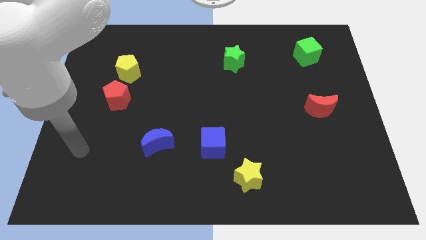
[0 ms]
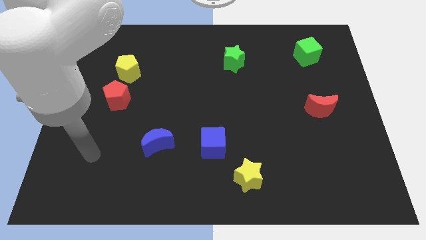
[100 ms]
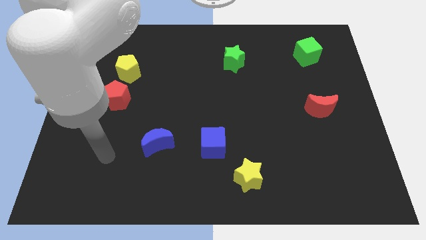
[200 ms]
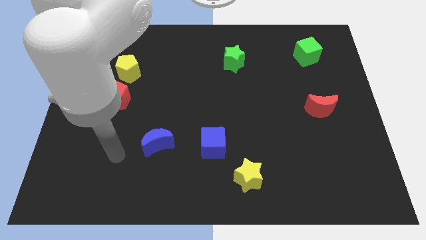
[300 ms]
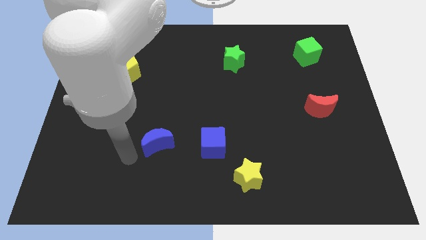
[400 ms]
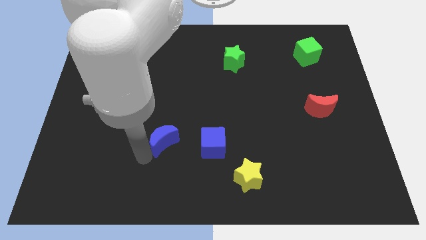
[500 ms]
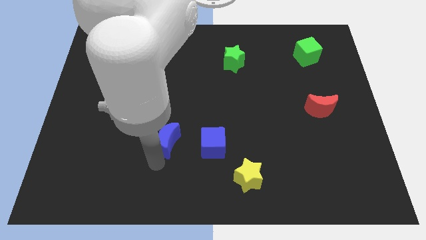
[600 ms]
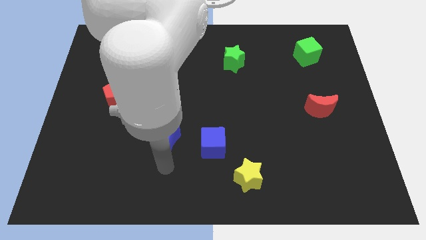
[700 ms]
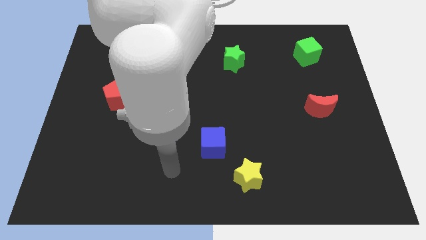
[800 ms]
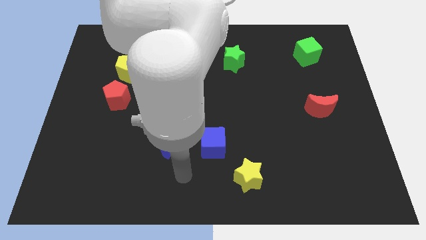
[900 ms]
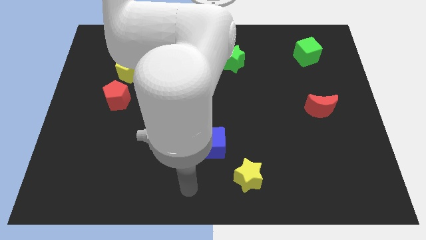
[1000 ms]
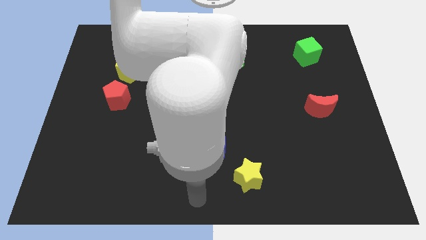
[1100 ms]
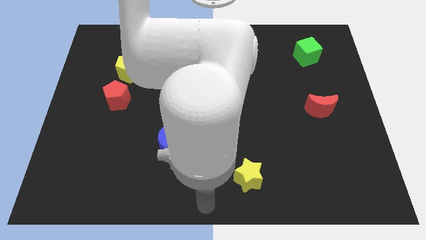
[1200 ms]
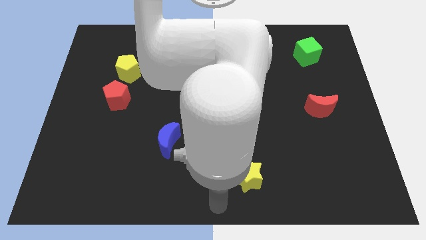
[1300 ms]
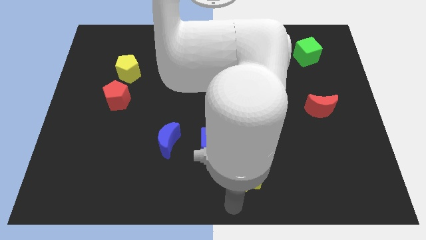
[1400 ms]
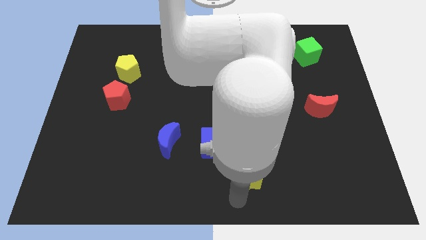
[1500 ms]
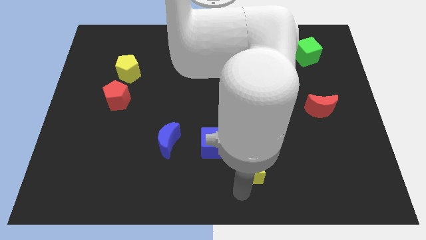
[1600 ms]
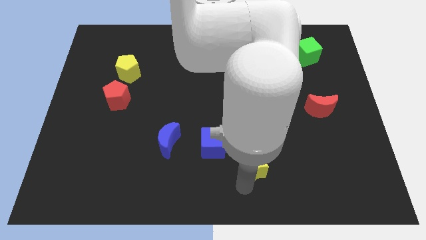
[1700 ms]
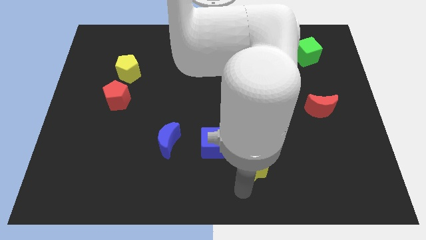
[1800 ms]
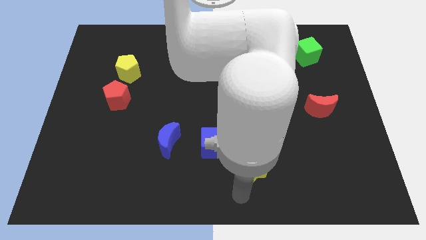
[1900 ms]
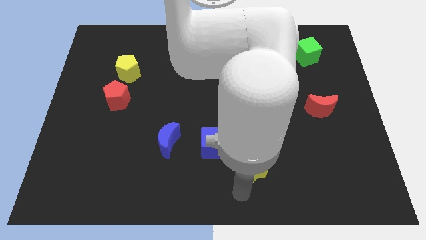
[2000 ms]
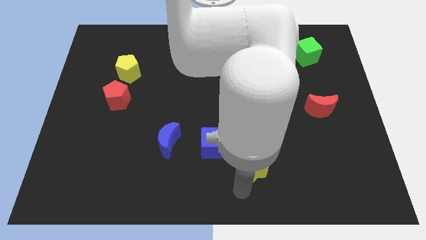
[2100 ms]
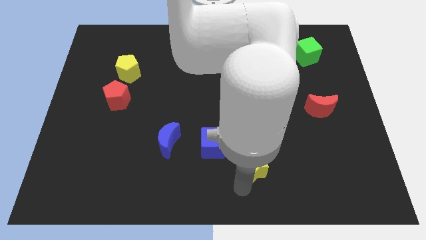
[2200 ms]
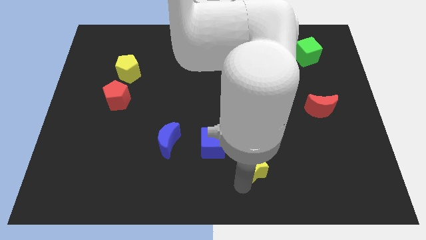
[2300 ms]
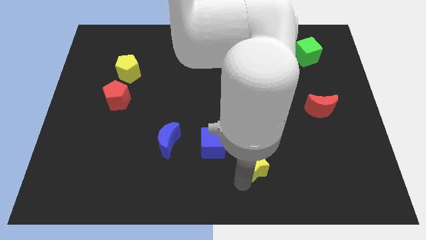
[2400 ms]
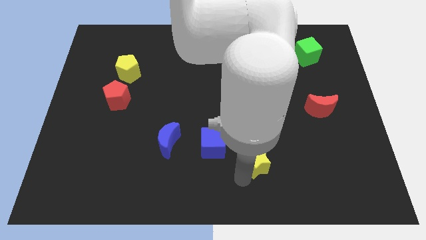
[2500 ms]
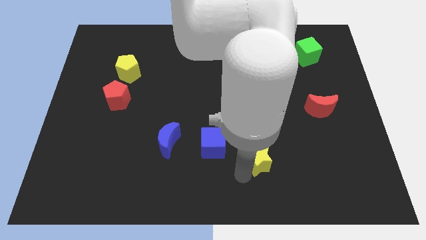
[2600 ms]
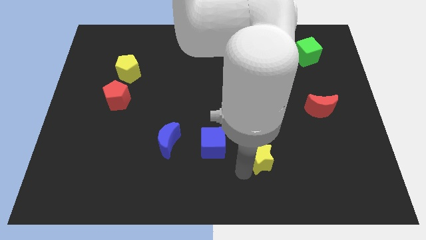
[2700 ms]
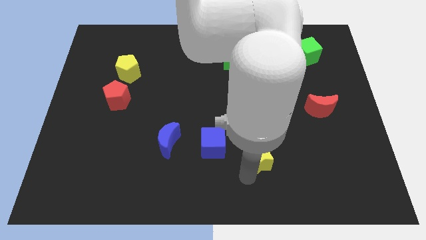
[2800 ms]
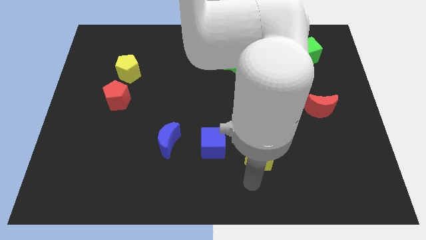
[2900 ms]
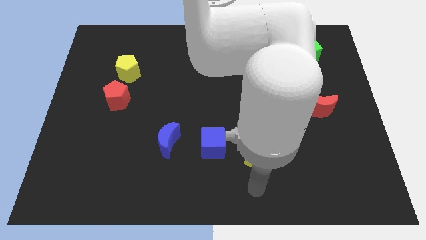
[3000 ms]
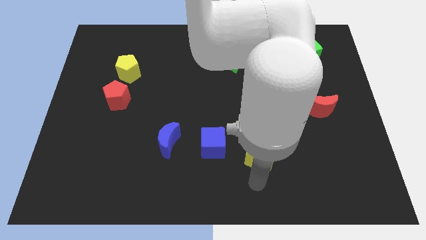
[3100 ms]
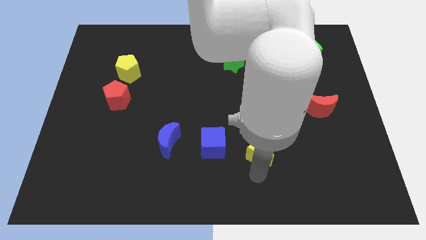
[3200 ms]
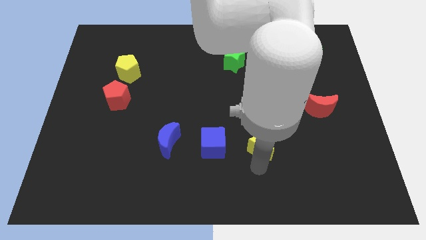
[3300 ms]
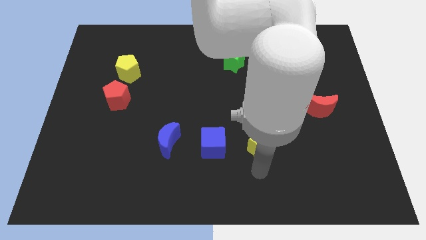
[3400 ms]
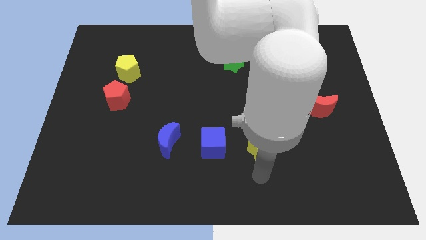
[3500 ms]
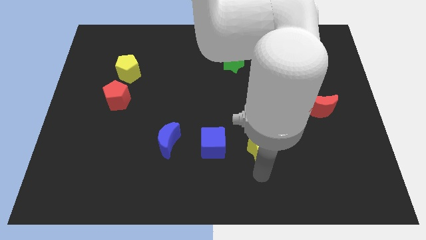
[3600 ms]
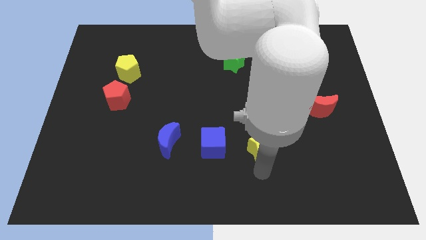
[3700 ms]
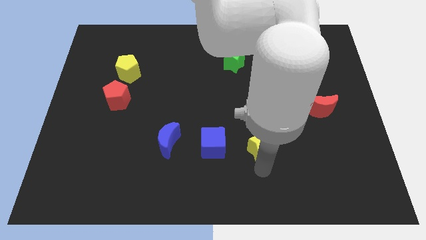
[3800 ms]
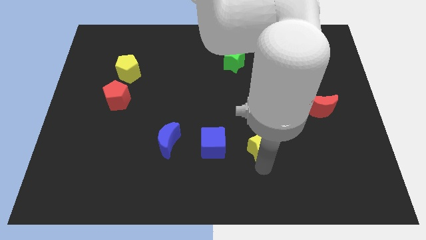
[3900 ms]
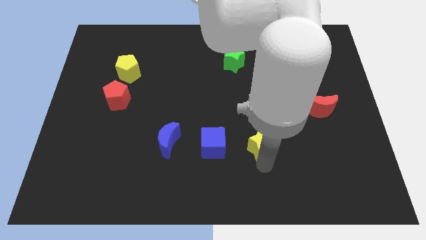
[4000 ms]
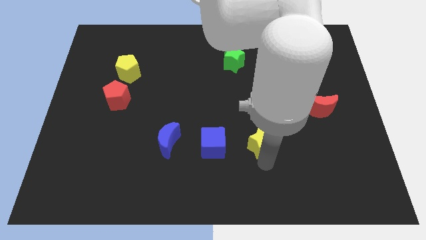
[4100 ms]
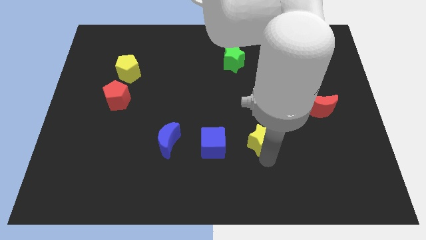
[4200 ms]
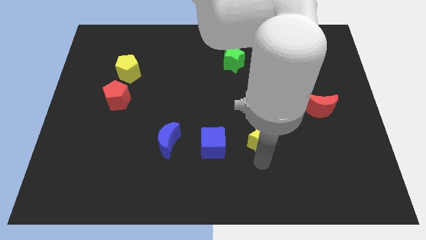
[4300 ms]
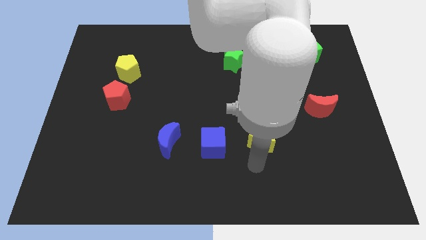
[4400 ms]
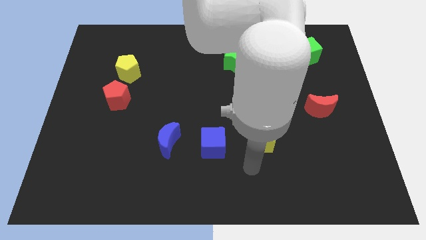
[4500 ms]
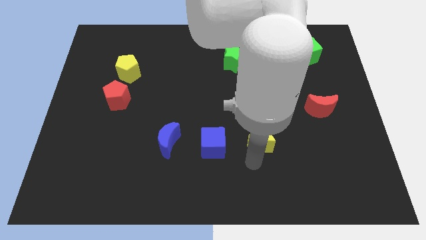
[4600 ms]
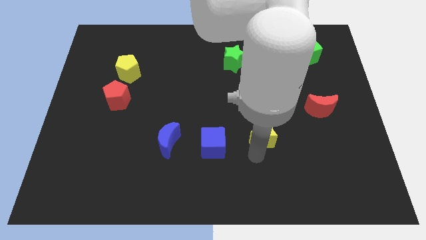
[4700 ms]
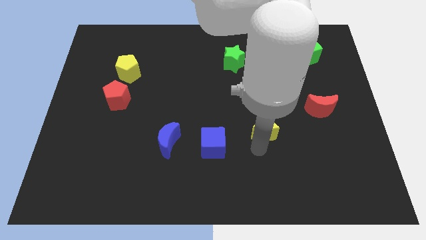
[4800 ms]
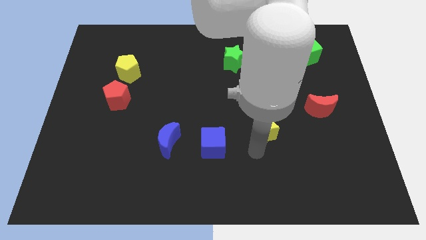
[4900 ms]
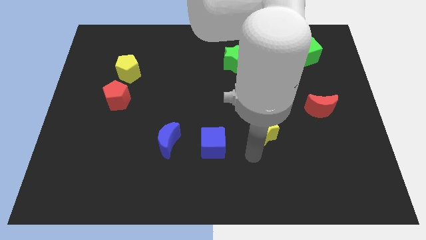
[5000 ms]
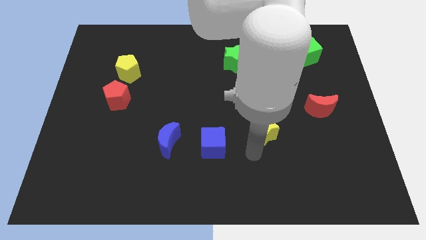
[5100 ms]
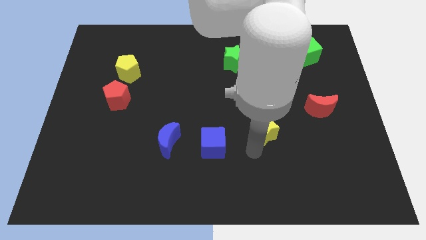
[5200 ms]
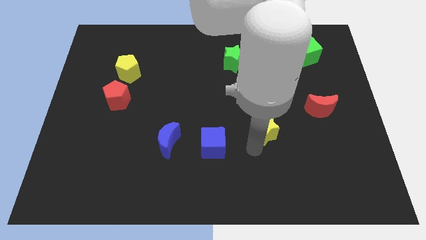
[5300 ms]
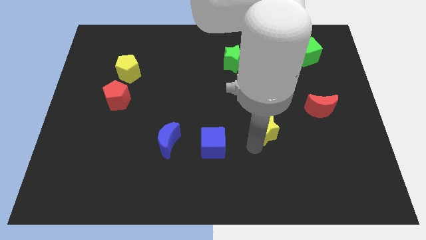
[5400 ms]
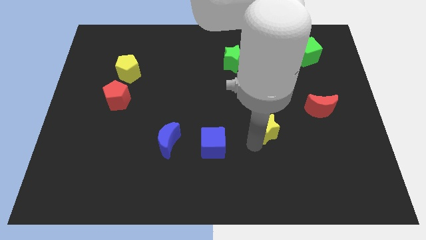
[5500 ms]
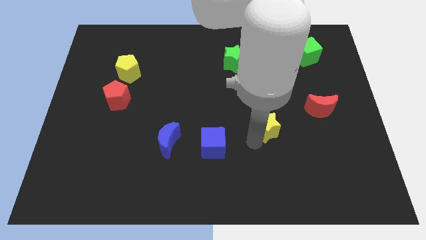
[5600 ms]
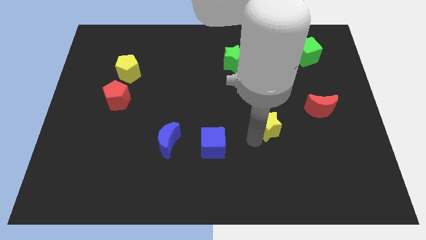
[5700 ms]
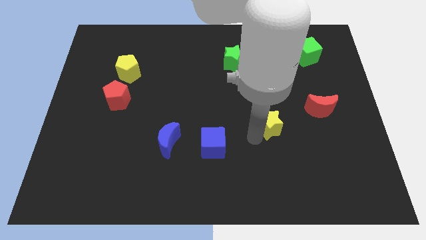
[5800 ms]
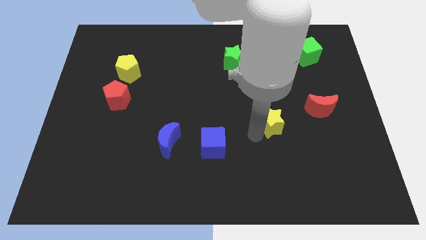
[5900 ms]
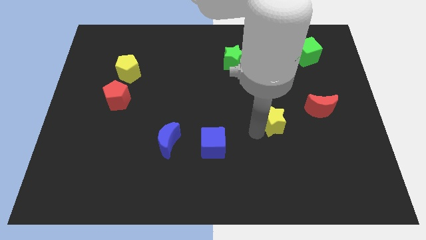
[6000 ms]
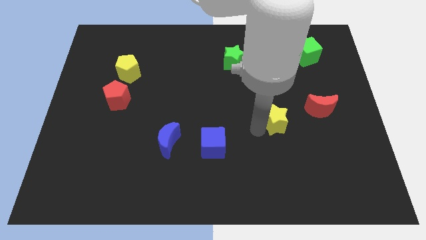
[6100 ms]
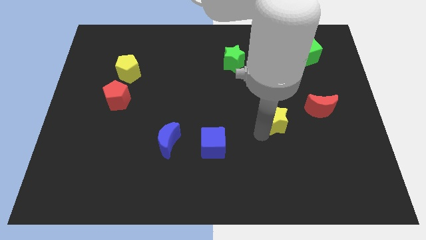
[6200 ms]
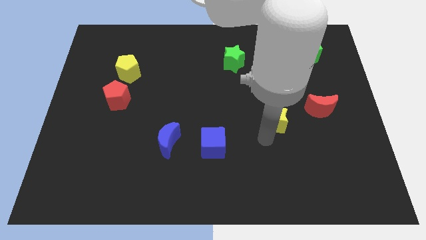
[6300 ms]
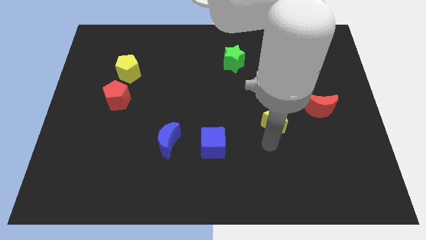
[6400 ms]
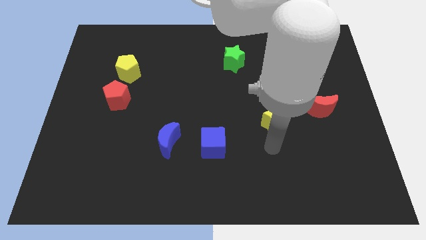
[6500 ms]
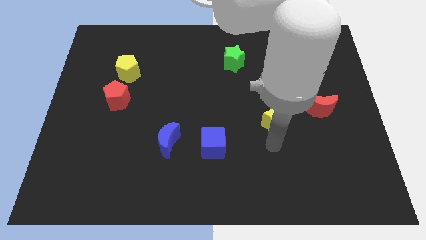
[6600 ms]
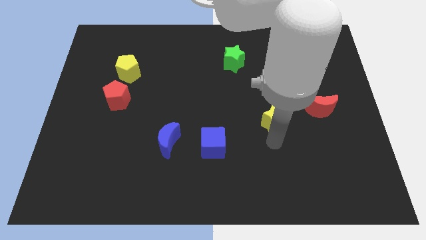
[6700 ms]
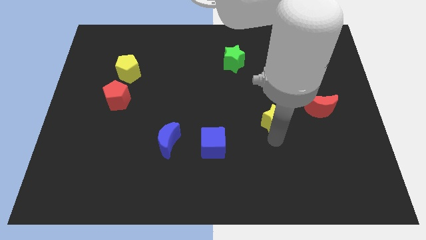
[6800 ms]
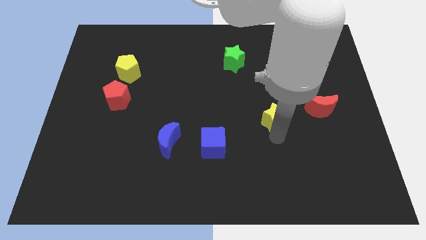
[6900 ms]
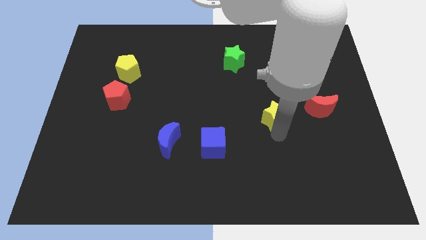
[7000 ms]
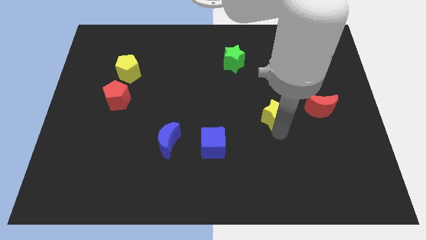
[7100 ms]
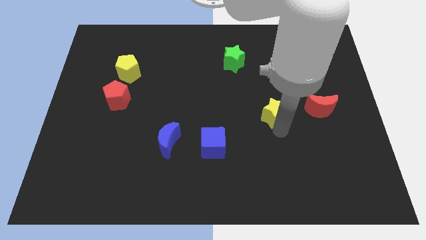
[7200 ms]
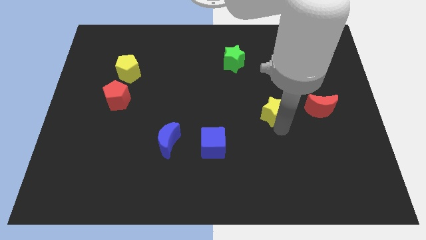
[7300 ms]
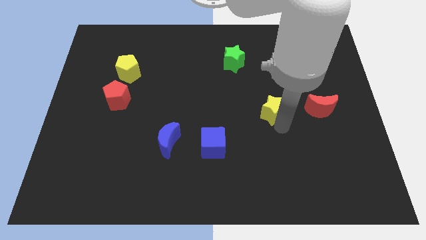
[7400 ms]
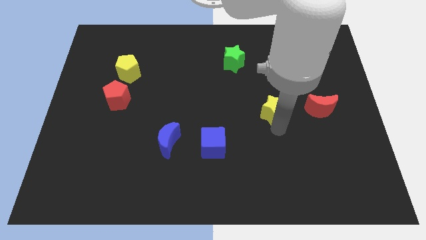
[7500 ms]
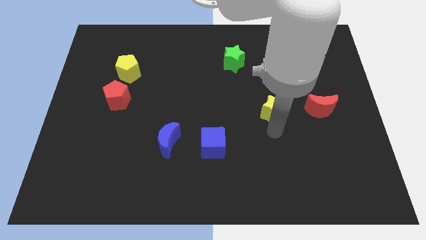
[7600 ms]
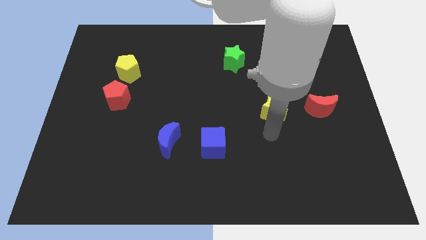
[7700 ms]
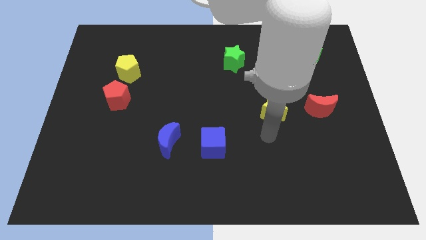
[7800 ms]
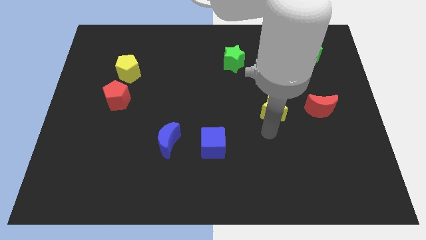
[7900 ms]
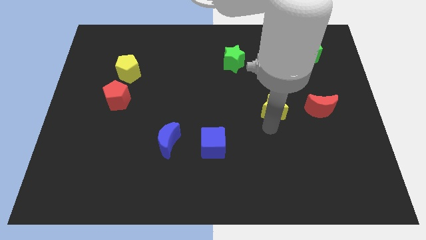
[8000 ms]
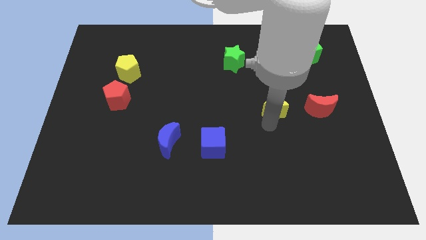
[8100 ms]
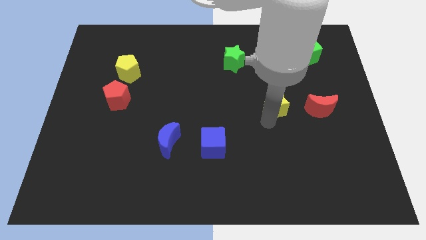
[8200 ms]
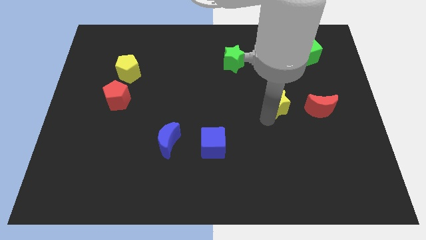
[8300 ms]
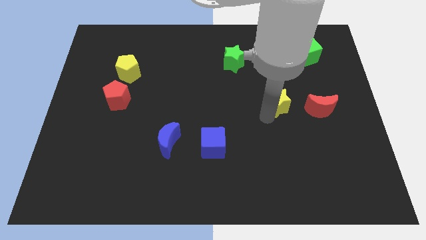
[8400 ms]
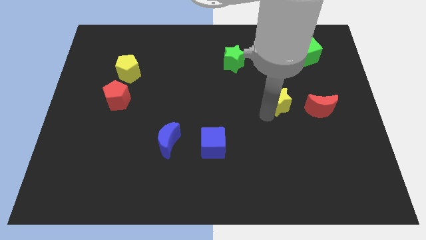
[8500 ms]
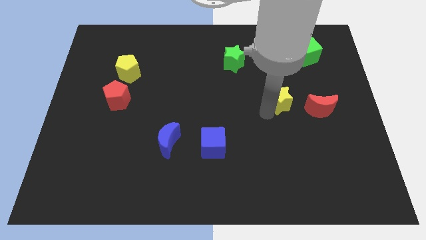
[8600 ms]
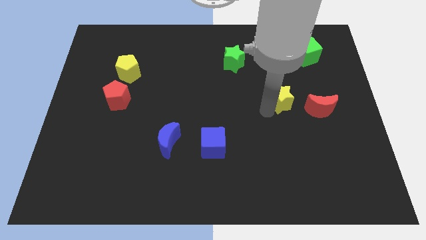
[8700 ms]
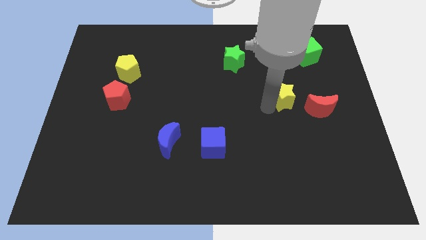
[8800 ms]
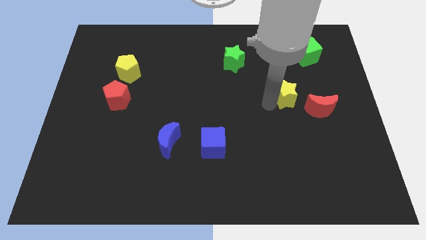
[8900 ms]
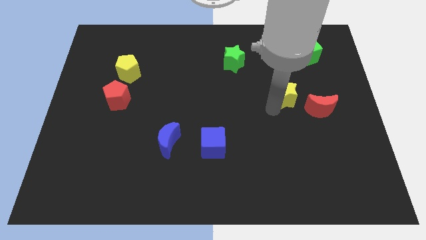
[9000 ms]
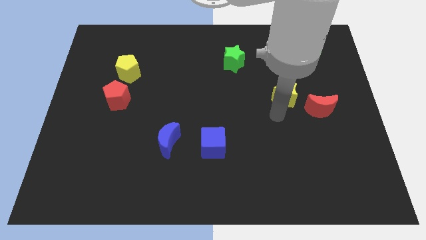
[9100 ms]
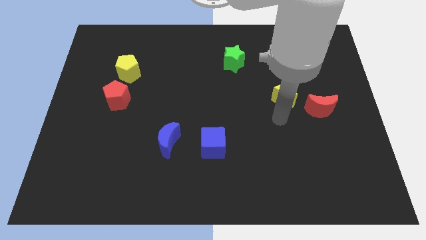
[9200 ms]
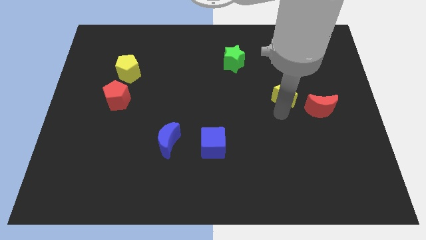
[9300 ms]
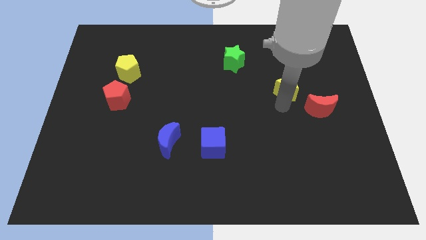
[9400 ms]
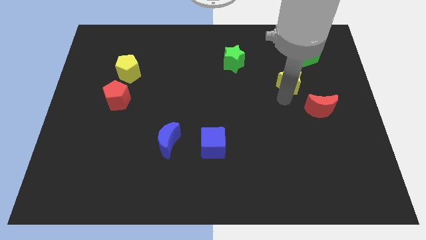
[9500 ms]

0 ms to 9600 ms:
put the yellow star to the bottom left of the green cube
